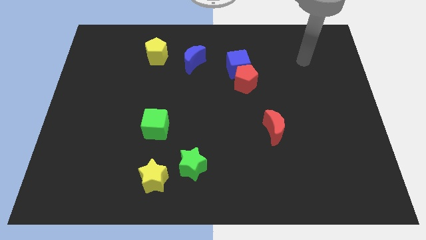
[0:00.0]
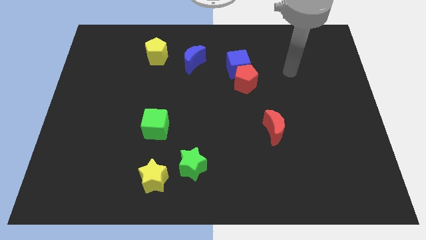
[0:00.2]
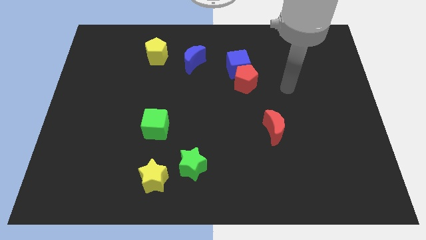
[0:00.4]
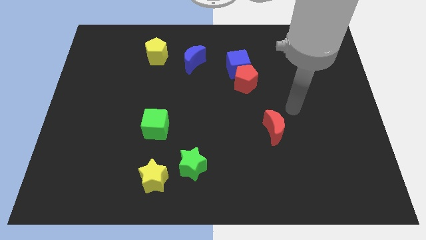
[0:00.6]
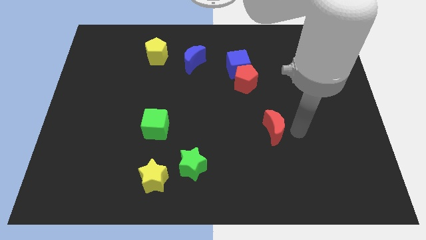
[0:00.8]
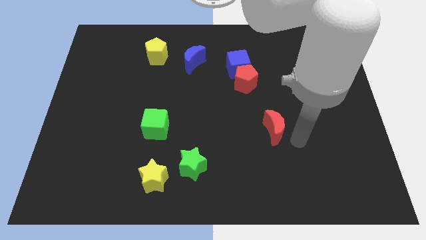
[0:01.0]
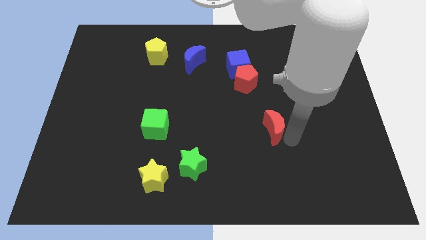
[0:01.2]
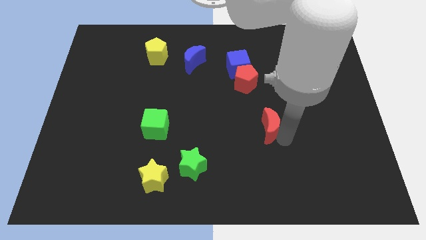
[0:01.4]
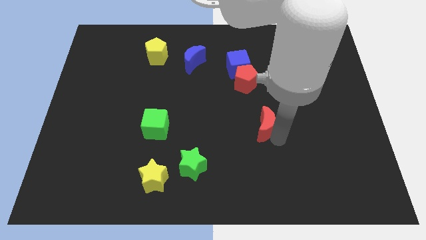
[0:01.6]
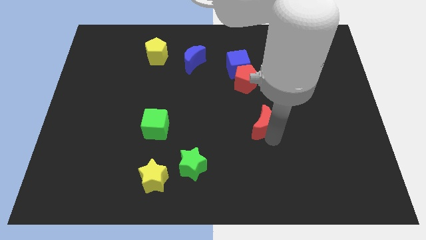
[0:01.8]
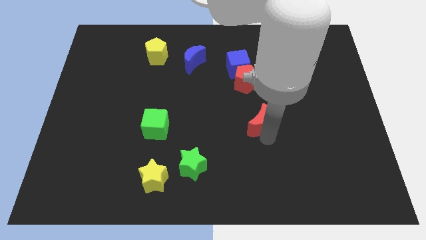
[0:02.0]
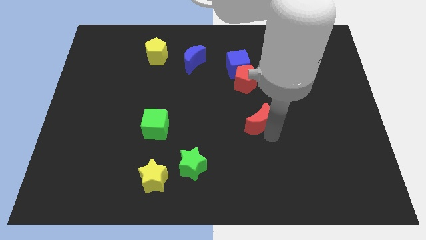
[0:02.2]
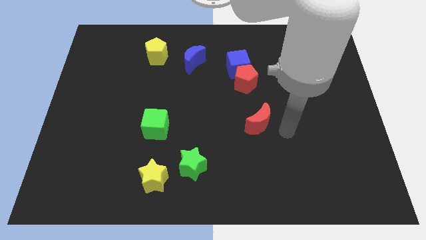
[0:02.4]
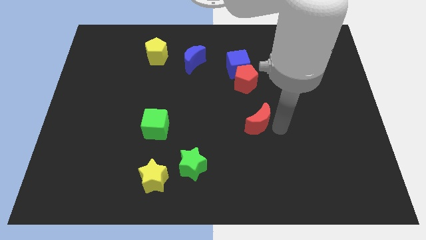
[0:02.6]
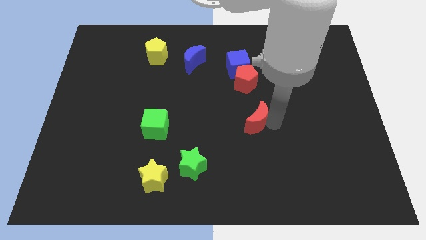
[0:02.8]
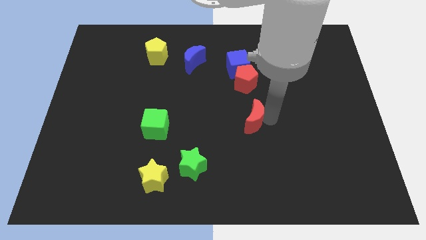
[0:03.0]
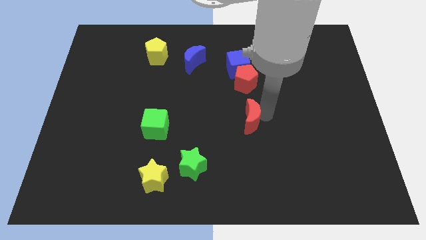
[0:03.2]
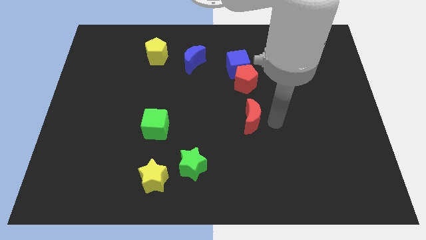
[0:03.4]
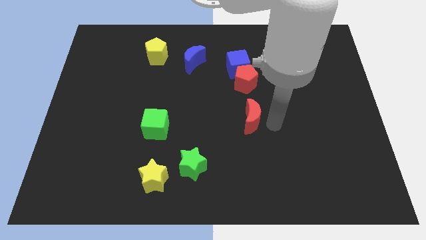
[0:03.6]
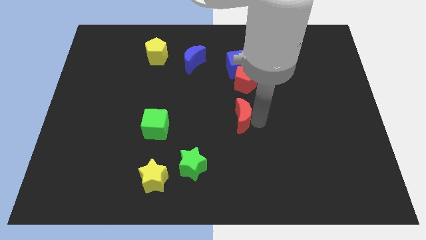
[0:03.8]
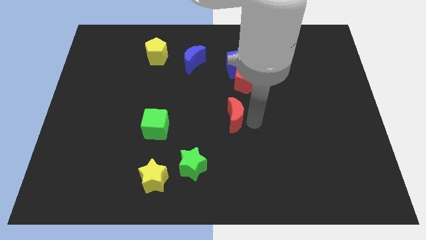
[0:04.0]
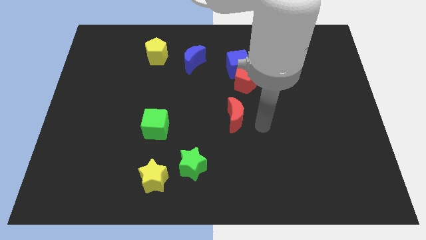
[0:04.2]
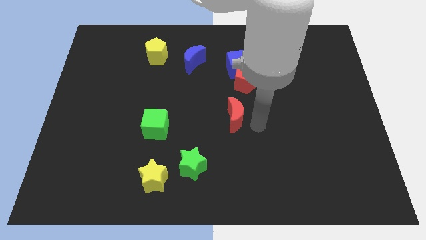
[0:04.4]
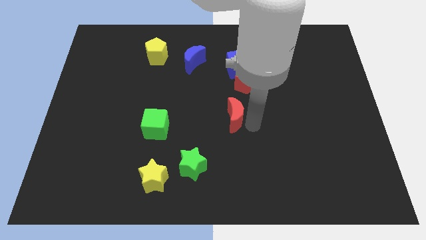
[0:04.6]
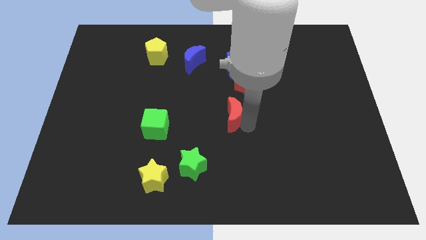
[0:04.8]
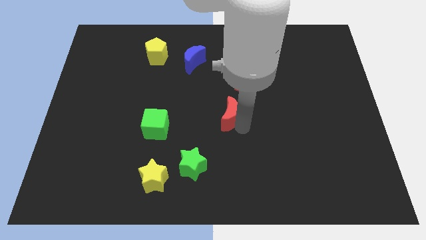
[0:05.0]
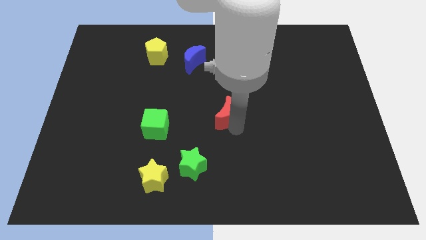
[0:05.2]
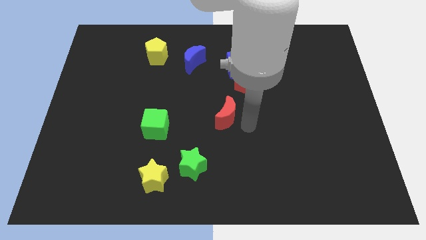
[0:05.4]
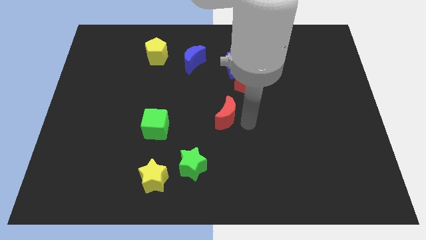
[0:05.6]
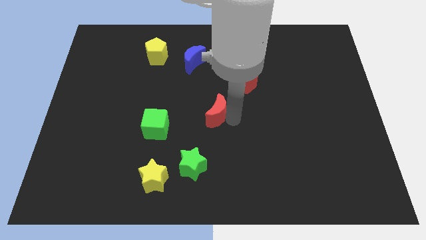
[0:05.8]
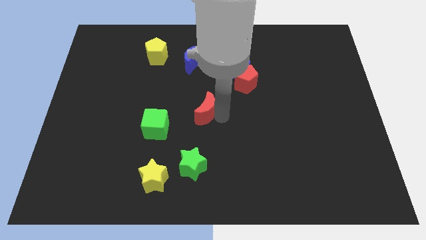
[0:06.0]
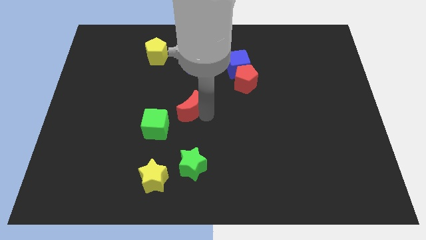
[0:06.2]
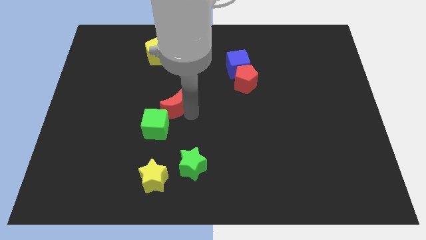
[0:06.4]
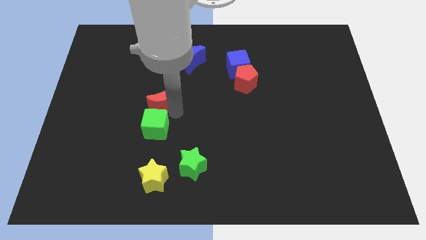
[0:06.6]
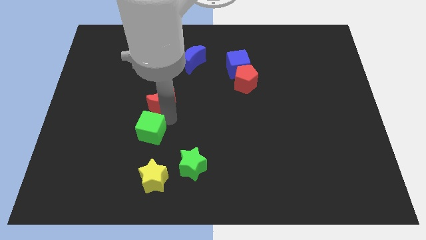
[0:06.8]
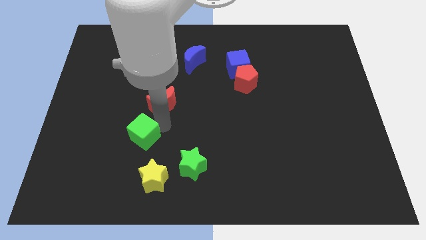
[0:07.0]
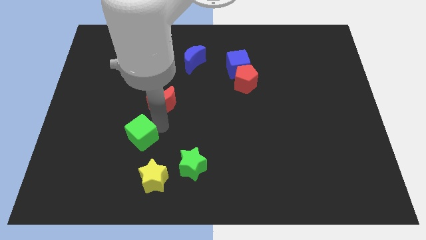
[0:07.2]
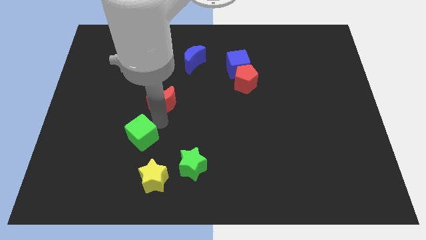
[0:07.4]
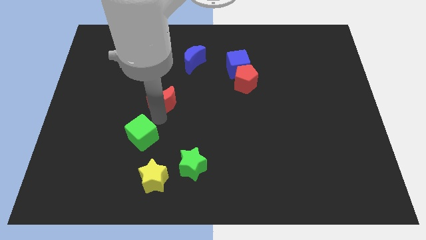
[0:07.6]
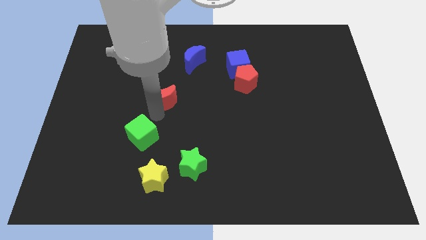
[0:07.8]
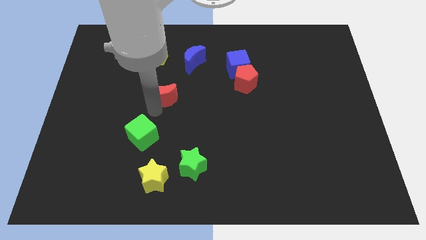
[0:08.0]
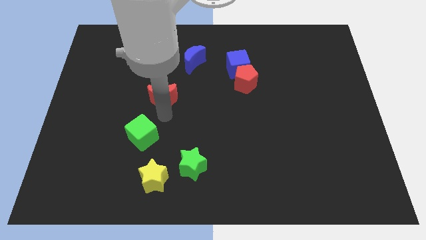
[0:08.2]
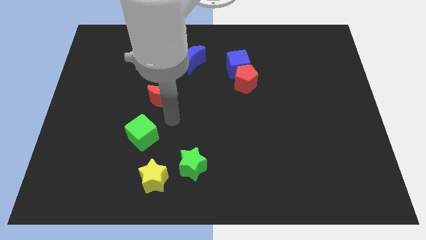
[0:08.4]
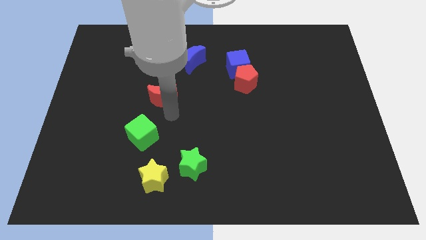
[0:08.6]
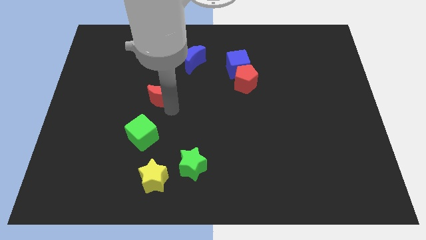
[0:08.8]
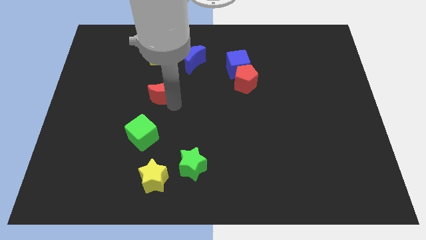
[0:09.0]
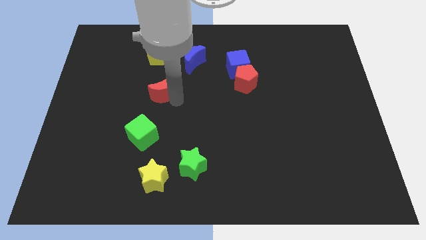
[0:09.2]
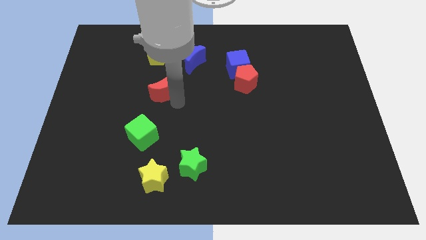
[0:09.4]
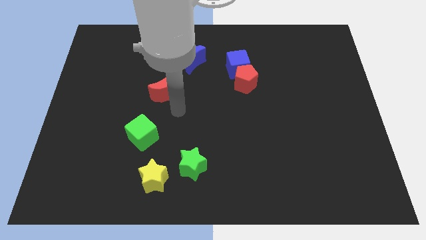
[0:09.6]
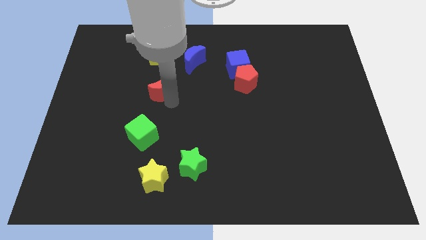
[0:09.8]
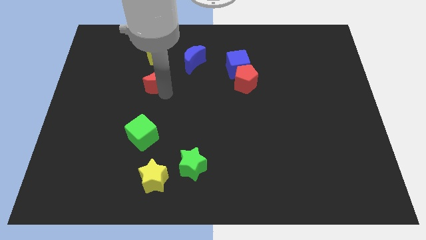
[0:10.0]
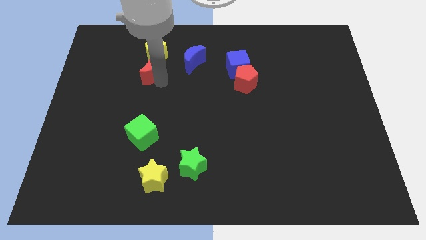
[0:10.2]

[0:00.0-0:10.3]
push the red moon diagonally down and to the left of the yellow pentagon

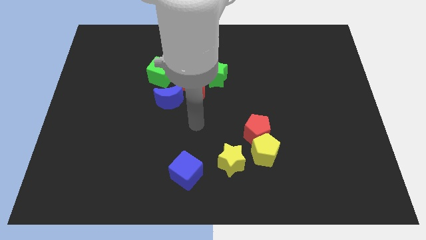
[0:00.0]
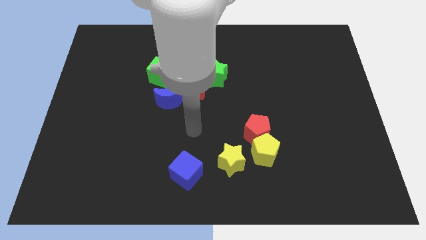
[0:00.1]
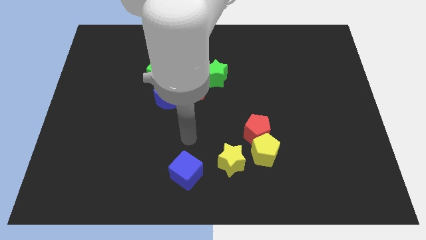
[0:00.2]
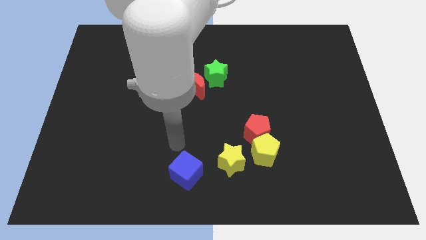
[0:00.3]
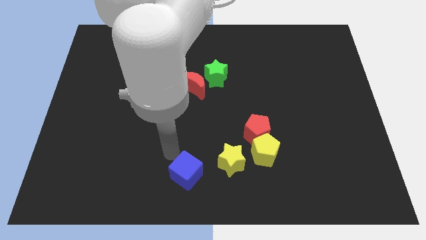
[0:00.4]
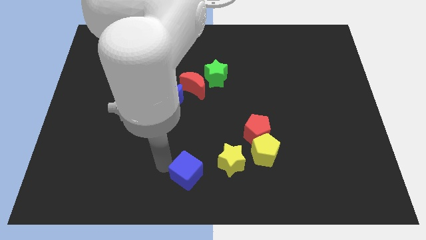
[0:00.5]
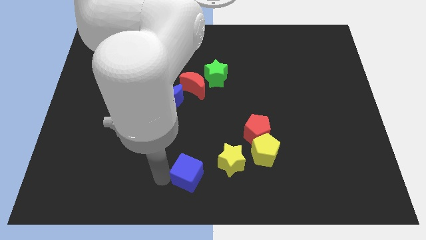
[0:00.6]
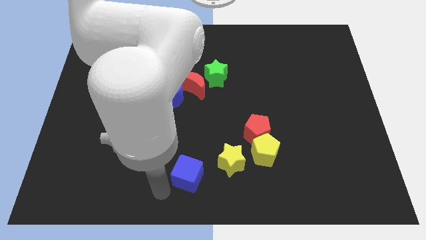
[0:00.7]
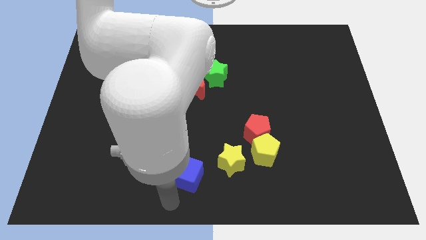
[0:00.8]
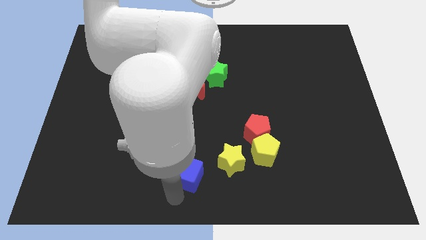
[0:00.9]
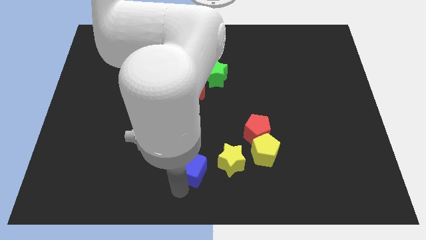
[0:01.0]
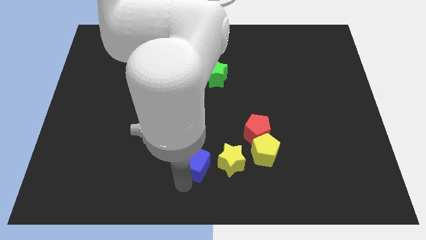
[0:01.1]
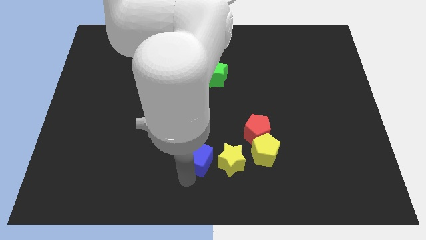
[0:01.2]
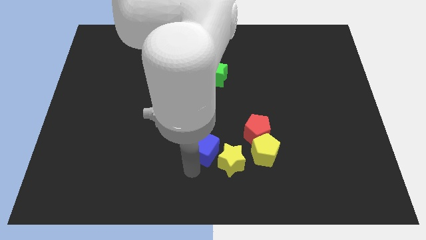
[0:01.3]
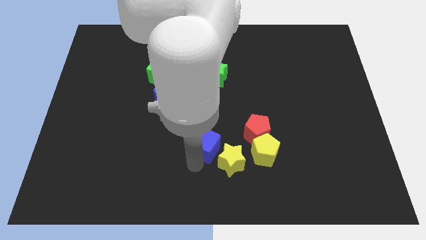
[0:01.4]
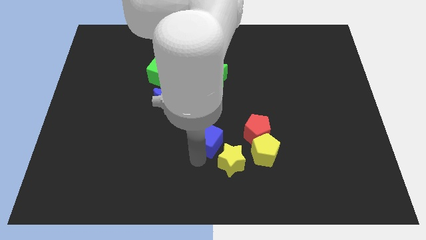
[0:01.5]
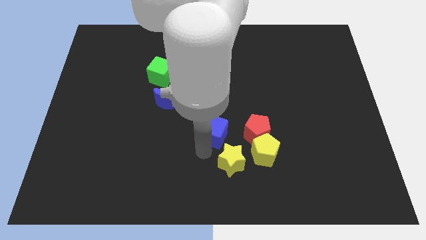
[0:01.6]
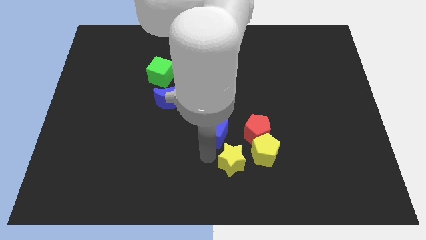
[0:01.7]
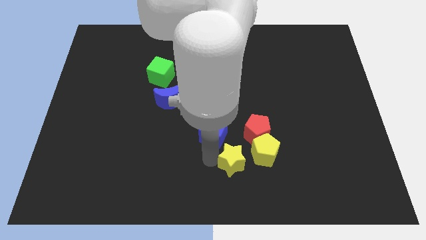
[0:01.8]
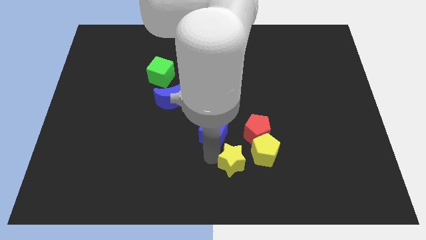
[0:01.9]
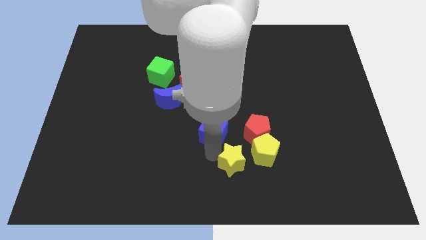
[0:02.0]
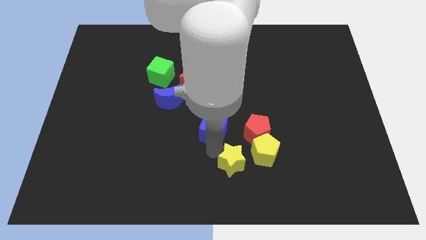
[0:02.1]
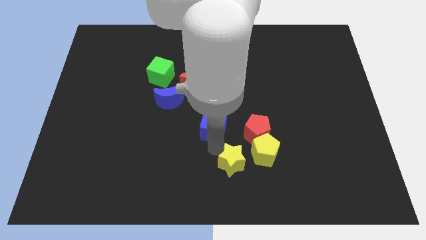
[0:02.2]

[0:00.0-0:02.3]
move the blue cube to the bottom of the green star
